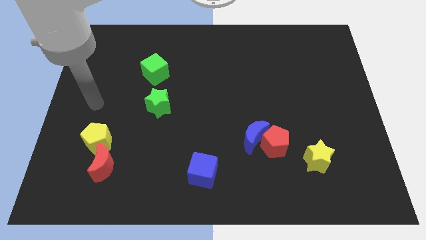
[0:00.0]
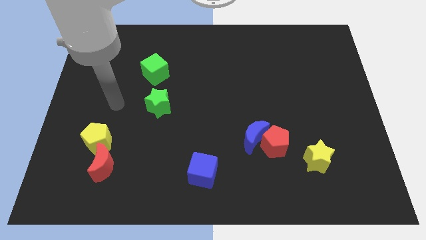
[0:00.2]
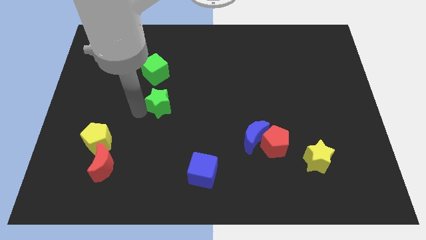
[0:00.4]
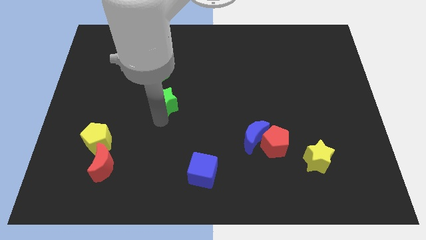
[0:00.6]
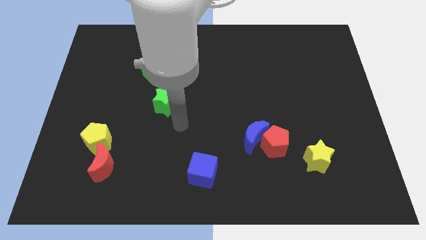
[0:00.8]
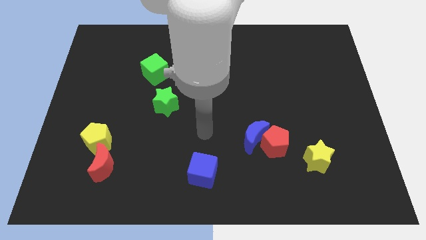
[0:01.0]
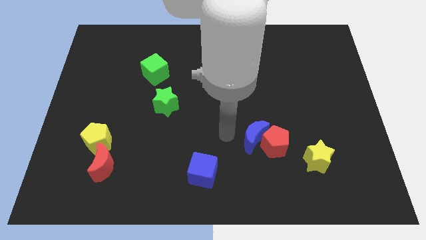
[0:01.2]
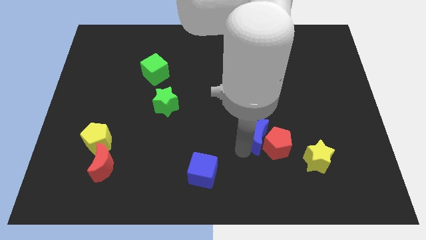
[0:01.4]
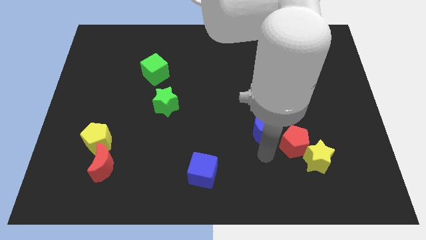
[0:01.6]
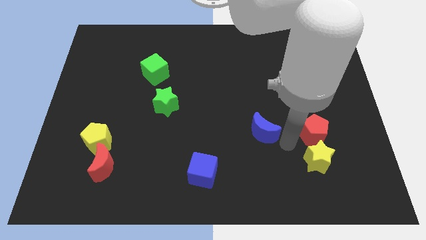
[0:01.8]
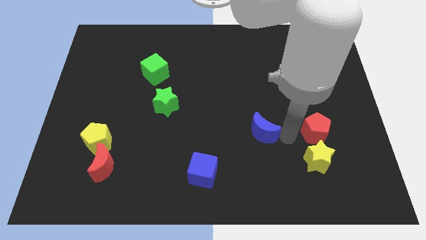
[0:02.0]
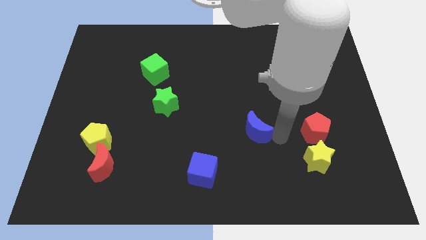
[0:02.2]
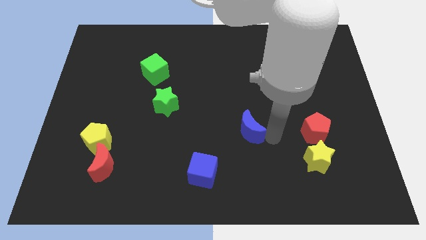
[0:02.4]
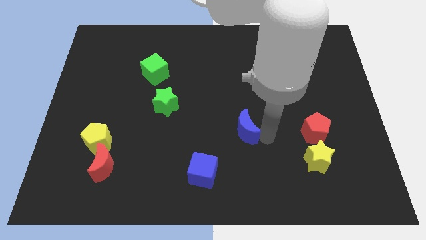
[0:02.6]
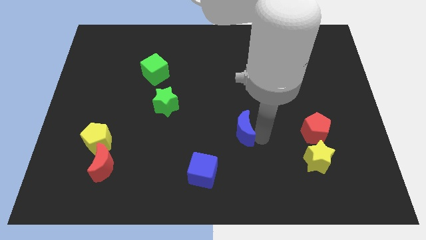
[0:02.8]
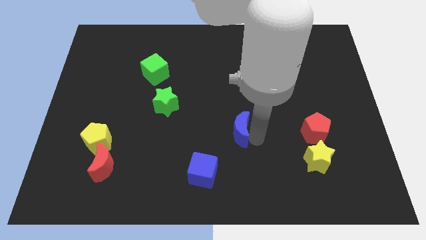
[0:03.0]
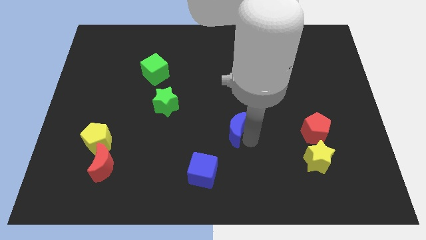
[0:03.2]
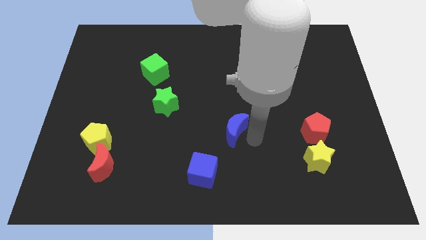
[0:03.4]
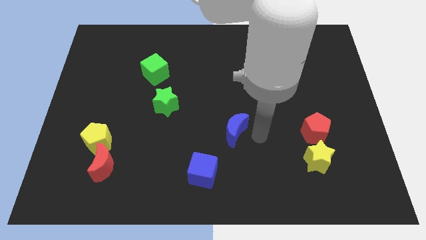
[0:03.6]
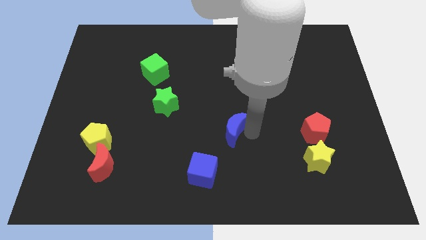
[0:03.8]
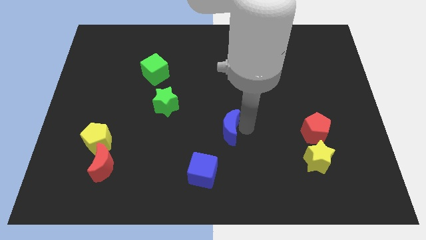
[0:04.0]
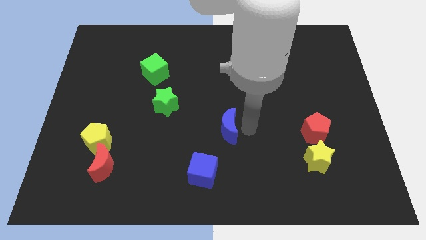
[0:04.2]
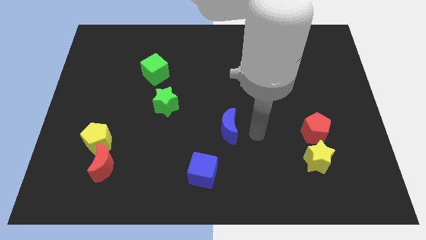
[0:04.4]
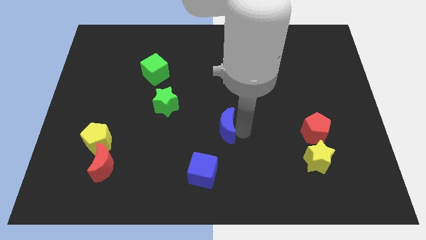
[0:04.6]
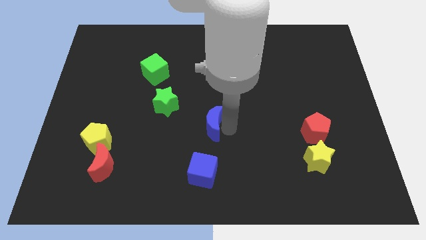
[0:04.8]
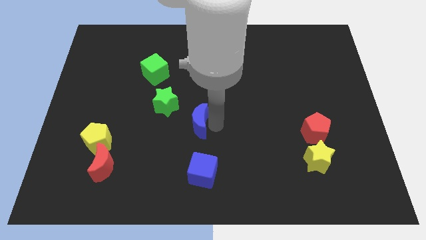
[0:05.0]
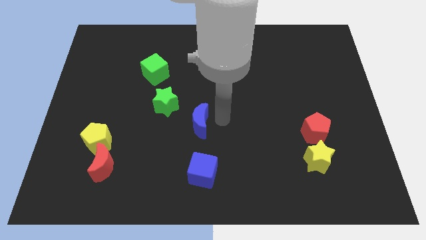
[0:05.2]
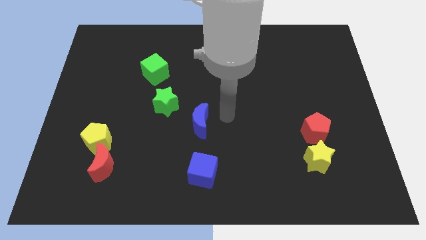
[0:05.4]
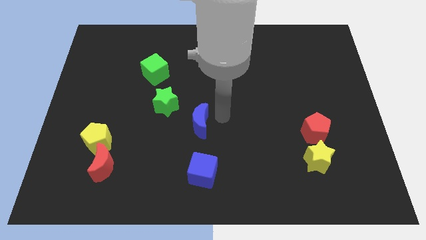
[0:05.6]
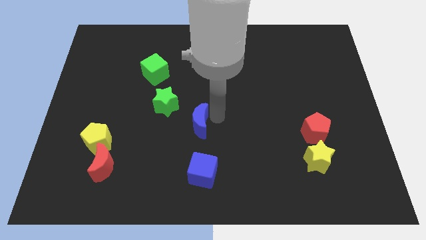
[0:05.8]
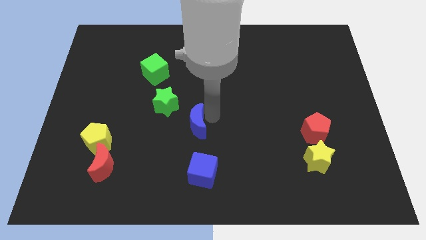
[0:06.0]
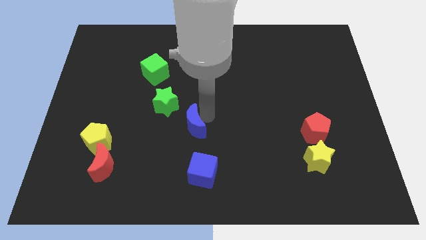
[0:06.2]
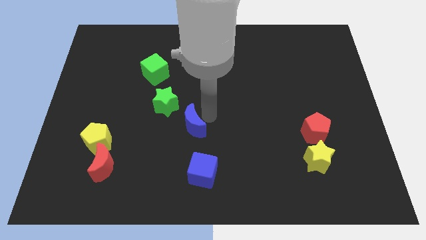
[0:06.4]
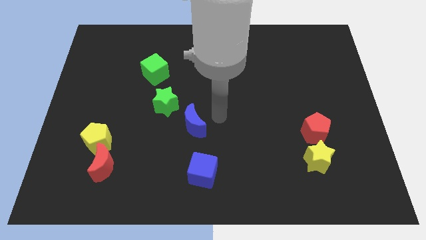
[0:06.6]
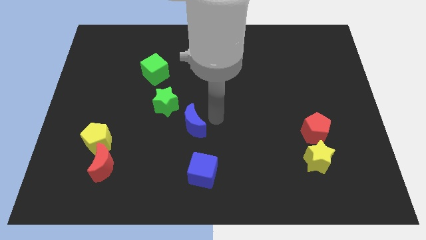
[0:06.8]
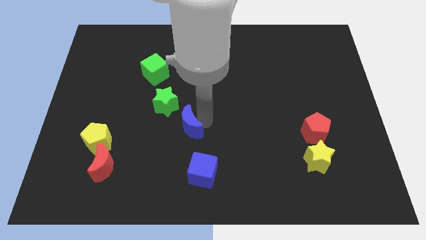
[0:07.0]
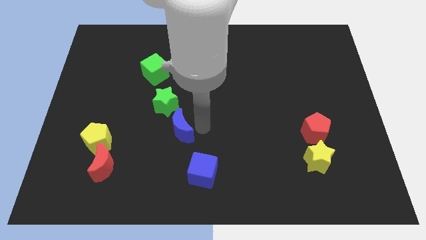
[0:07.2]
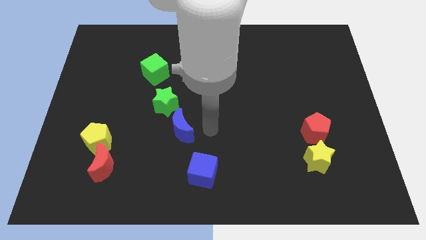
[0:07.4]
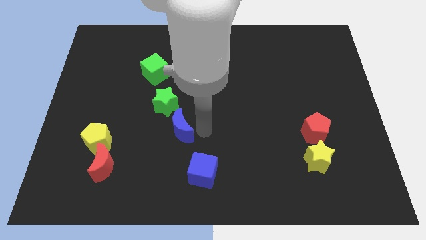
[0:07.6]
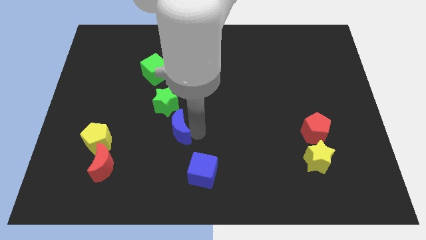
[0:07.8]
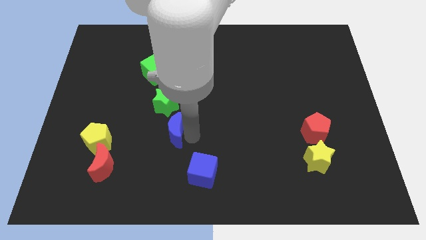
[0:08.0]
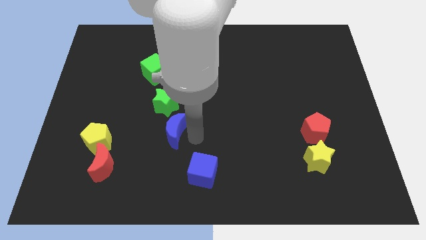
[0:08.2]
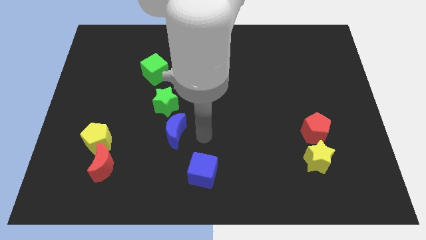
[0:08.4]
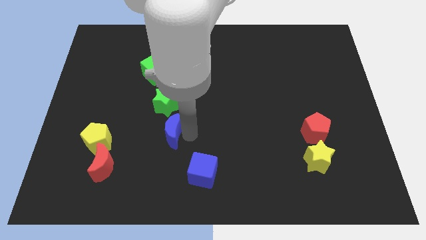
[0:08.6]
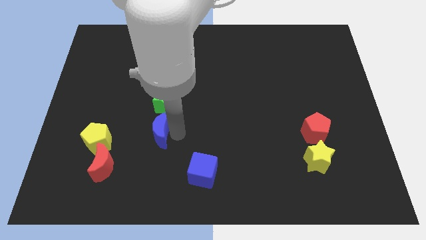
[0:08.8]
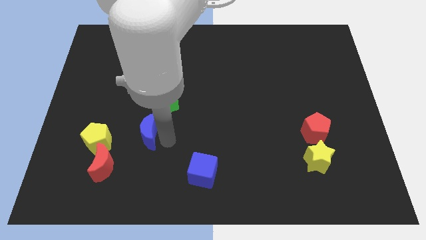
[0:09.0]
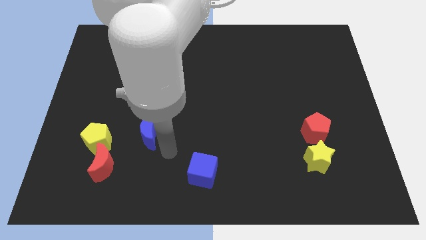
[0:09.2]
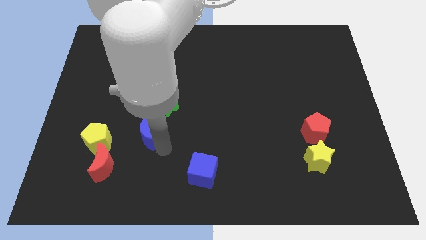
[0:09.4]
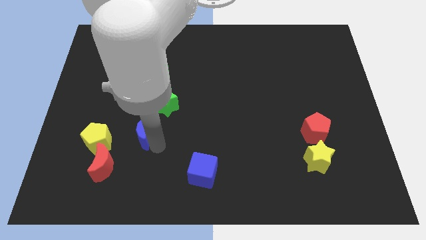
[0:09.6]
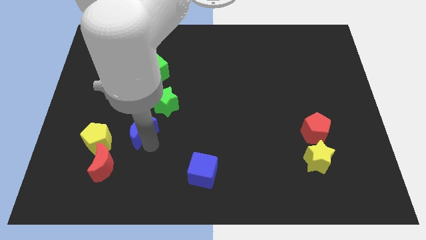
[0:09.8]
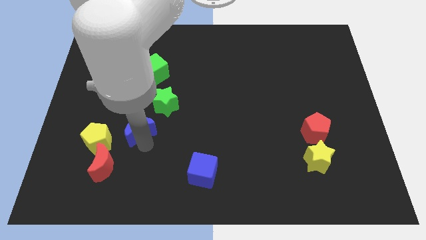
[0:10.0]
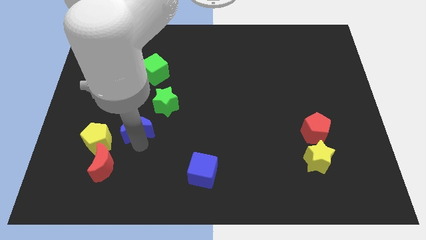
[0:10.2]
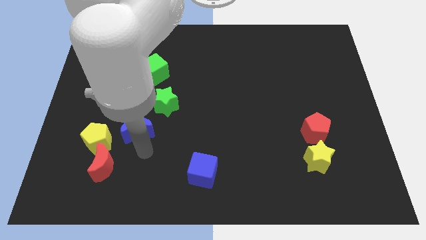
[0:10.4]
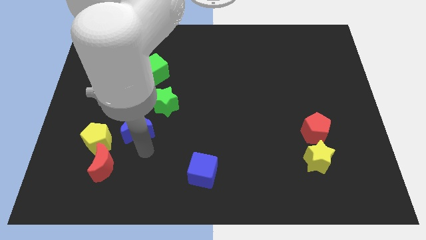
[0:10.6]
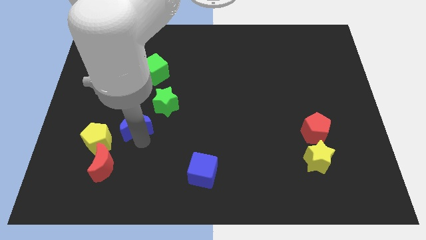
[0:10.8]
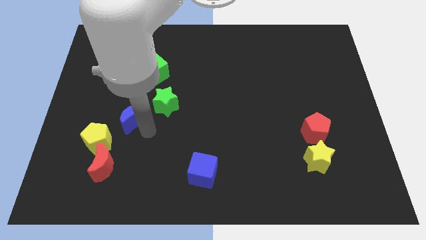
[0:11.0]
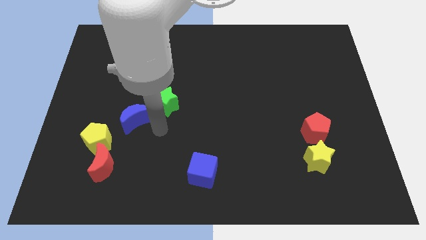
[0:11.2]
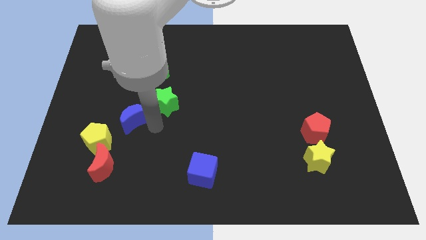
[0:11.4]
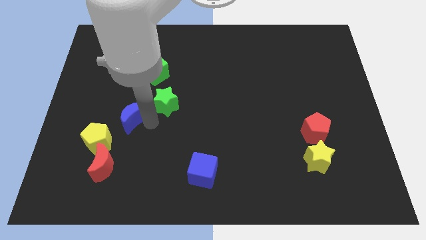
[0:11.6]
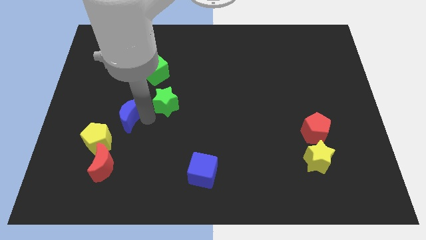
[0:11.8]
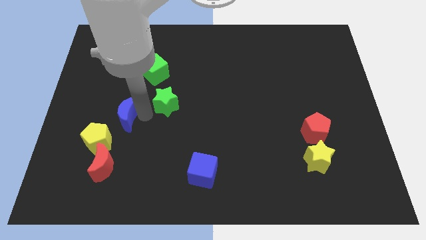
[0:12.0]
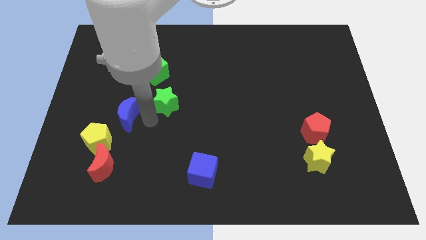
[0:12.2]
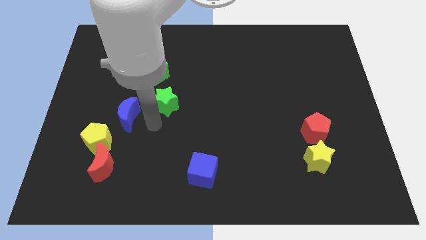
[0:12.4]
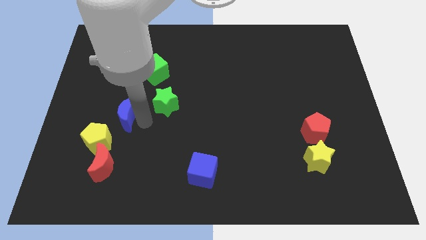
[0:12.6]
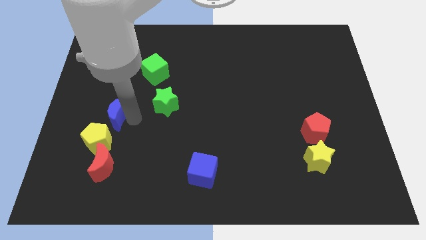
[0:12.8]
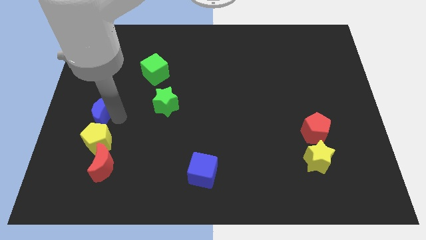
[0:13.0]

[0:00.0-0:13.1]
put the blue moon to the center left

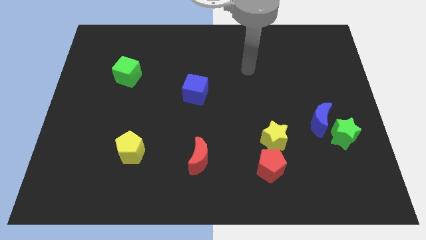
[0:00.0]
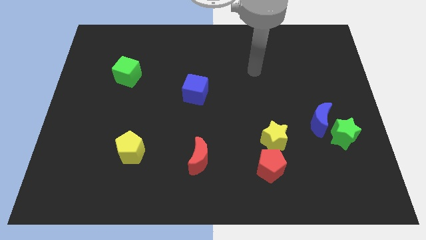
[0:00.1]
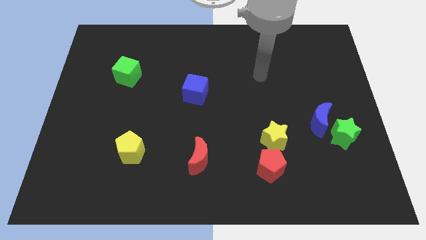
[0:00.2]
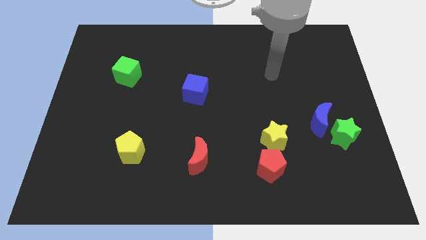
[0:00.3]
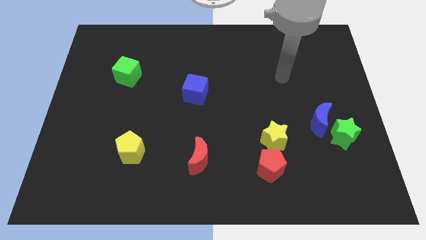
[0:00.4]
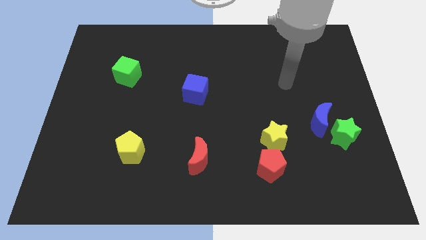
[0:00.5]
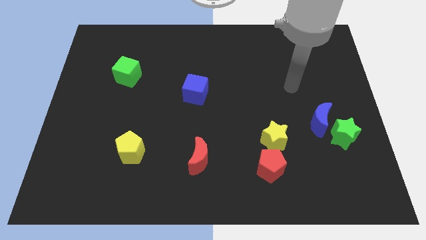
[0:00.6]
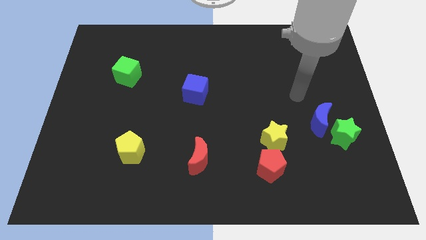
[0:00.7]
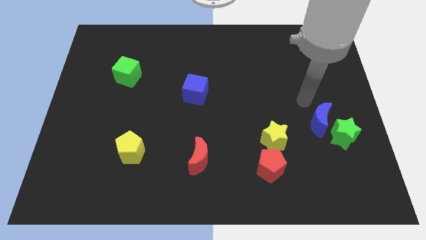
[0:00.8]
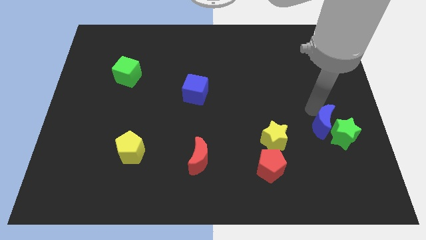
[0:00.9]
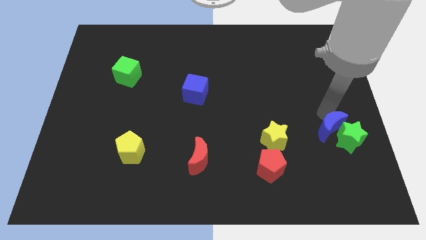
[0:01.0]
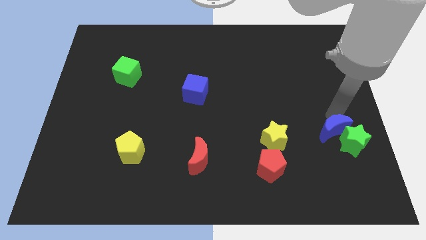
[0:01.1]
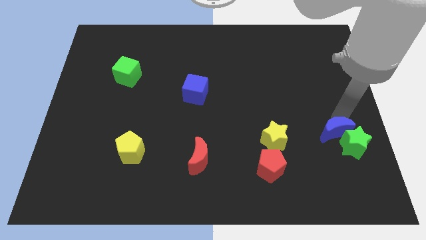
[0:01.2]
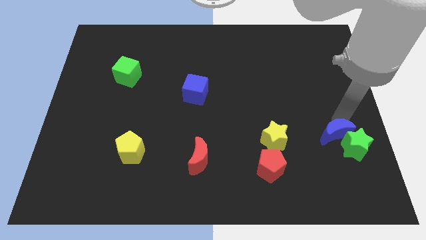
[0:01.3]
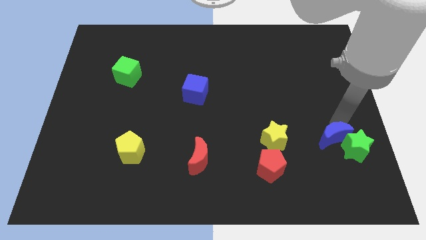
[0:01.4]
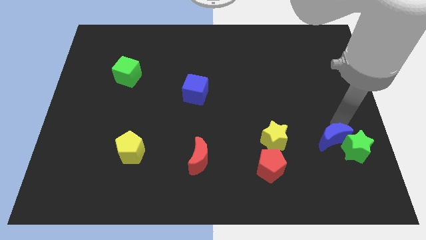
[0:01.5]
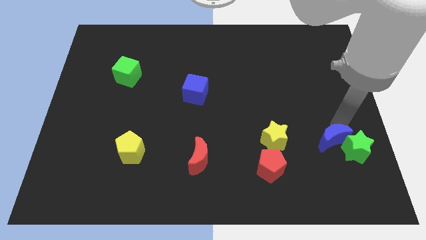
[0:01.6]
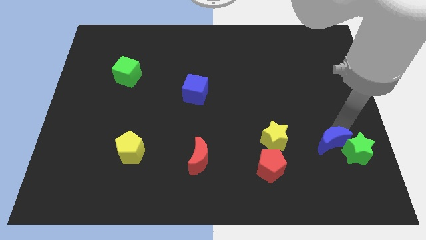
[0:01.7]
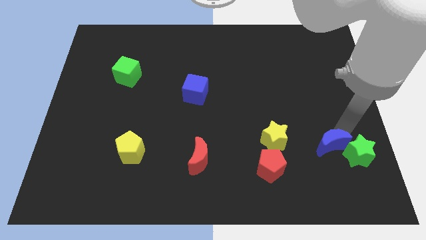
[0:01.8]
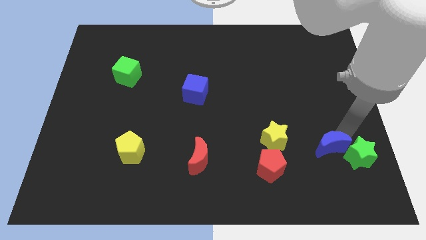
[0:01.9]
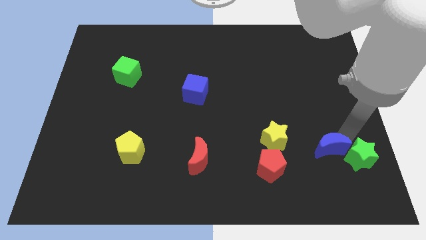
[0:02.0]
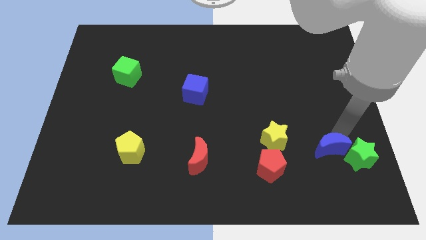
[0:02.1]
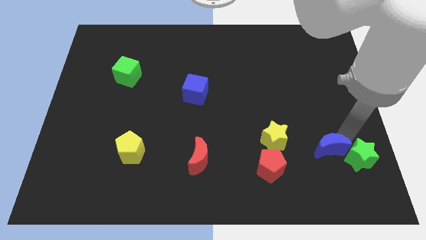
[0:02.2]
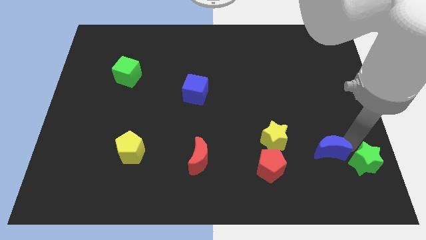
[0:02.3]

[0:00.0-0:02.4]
push the green star to the bottom right
